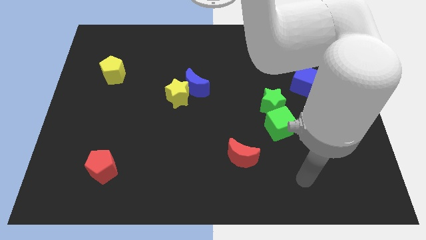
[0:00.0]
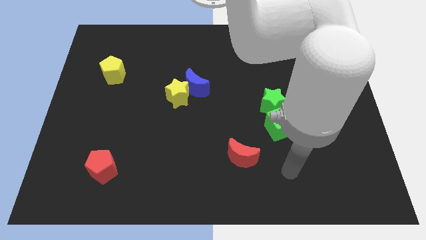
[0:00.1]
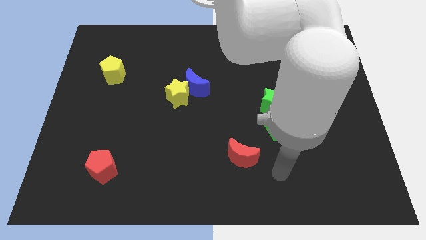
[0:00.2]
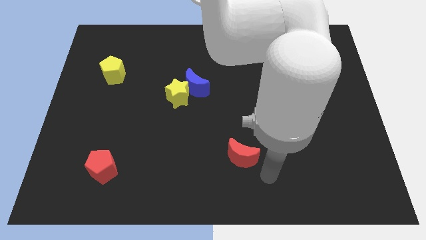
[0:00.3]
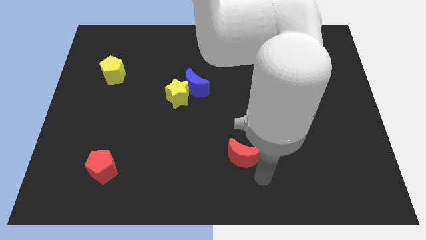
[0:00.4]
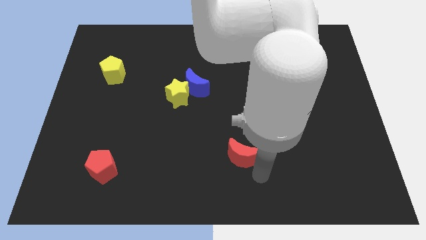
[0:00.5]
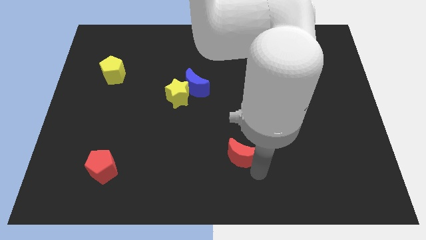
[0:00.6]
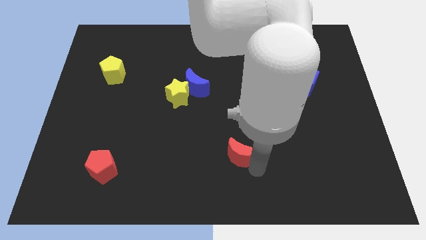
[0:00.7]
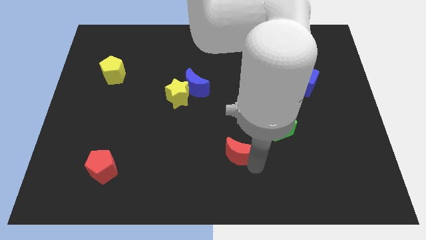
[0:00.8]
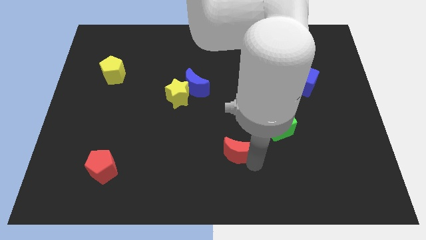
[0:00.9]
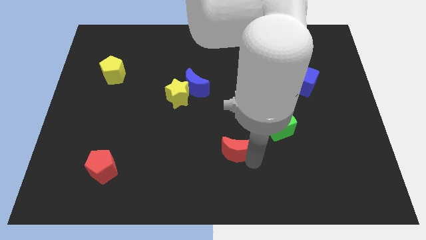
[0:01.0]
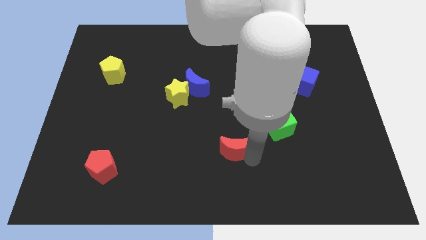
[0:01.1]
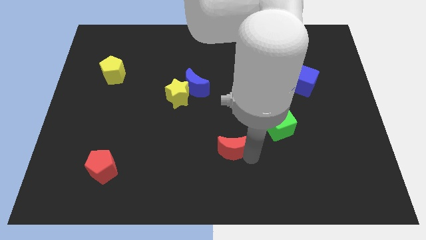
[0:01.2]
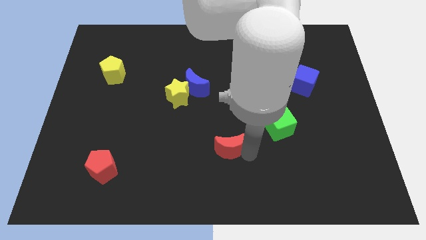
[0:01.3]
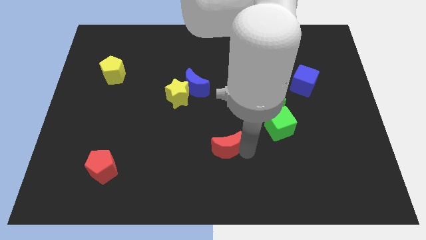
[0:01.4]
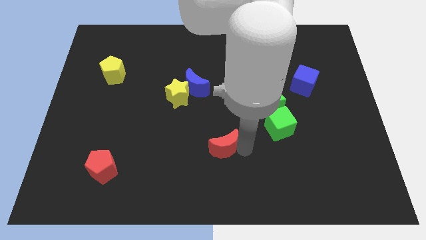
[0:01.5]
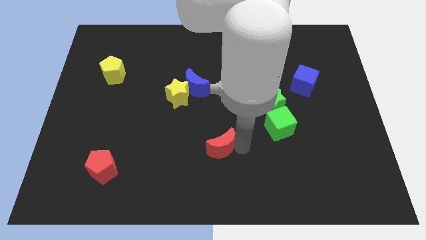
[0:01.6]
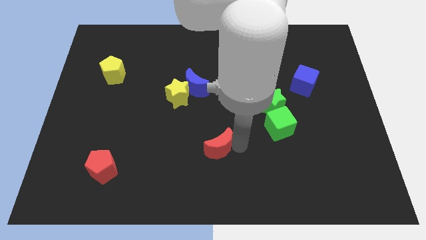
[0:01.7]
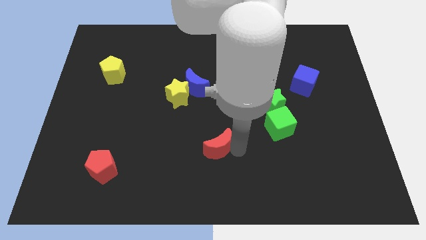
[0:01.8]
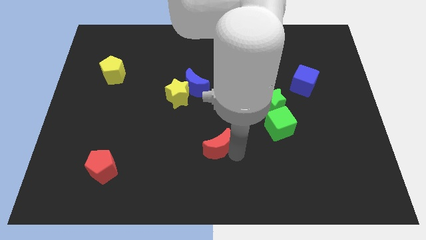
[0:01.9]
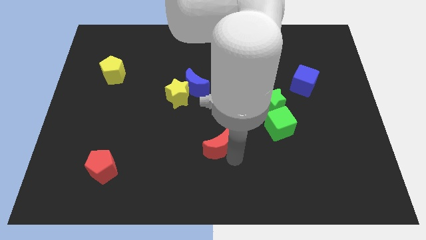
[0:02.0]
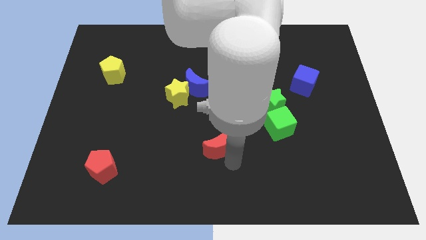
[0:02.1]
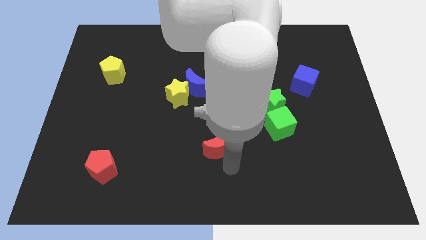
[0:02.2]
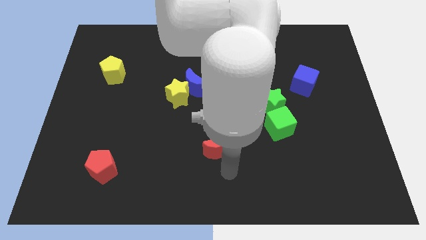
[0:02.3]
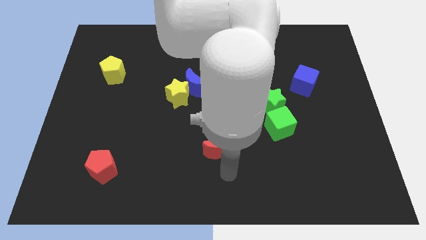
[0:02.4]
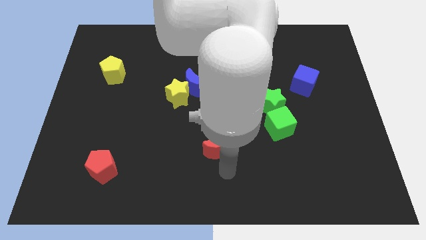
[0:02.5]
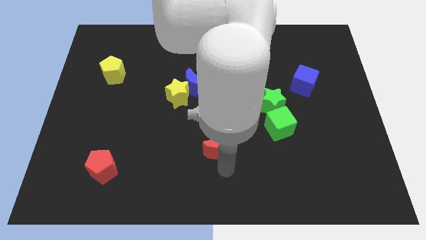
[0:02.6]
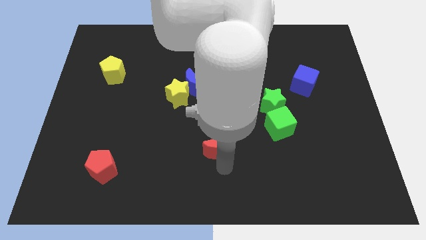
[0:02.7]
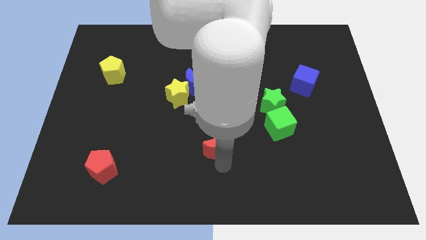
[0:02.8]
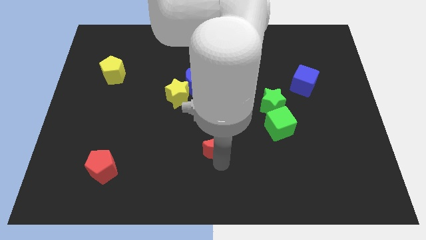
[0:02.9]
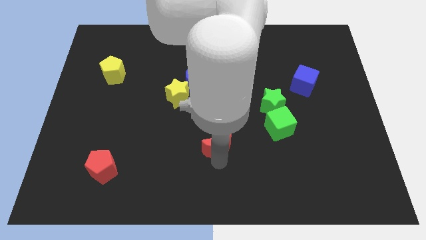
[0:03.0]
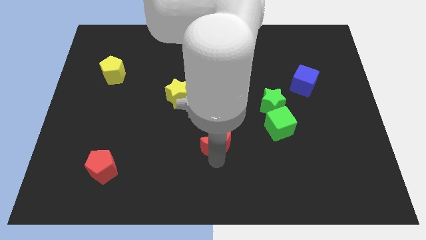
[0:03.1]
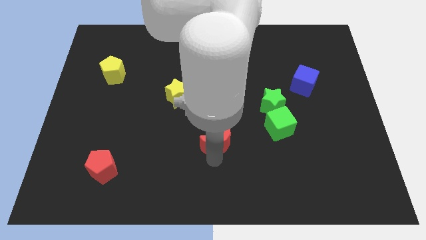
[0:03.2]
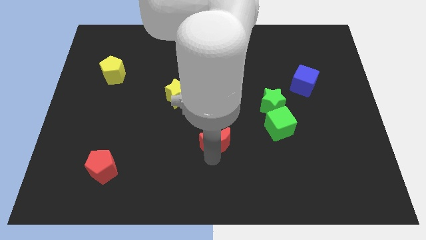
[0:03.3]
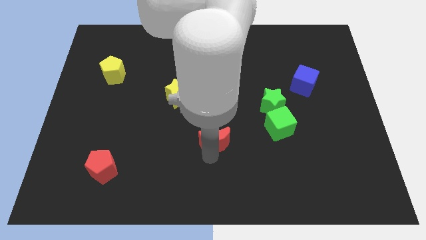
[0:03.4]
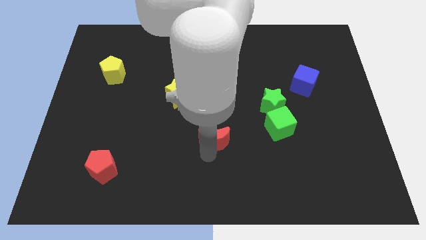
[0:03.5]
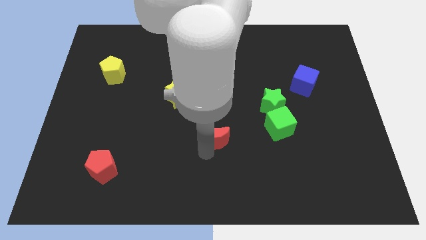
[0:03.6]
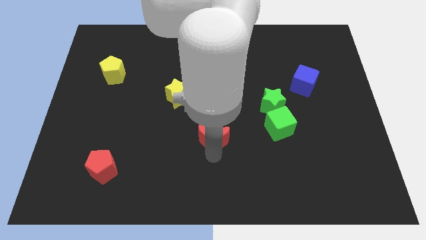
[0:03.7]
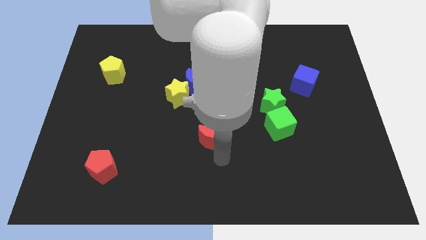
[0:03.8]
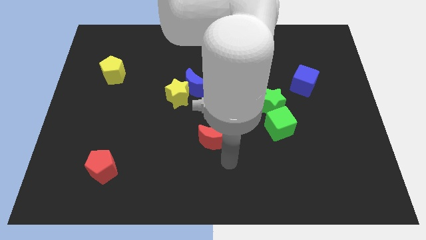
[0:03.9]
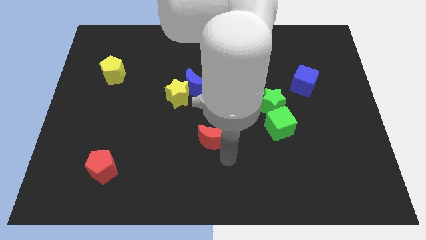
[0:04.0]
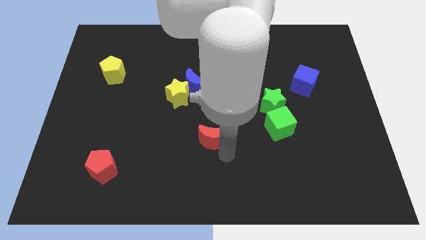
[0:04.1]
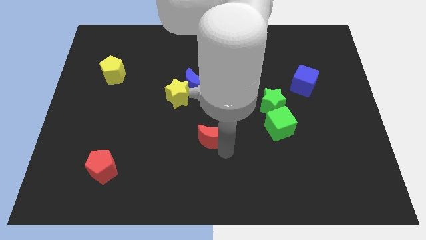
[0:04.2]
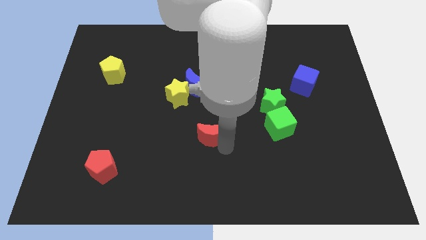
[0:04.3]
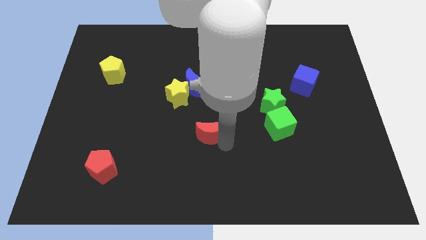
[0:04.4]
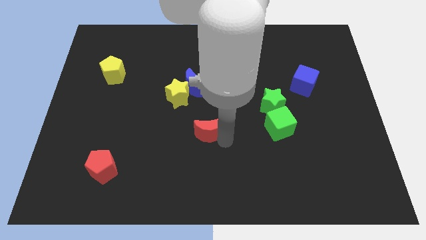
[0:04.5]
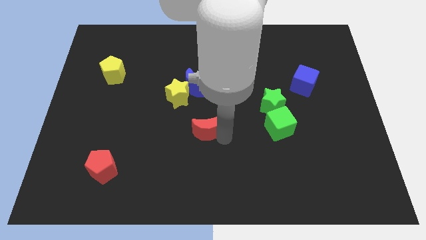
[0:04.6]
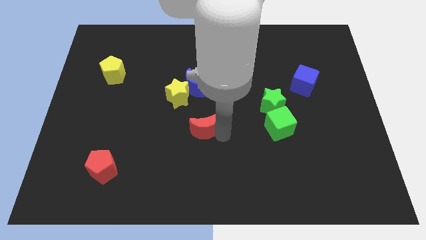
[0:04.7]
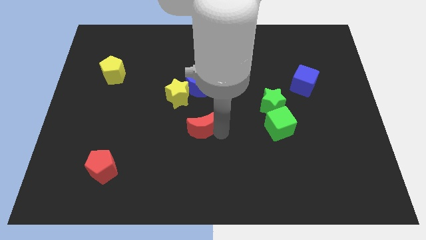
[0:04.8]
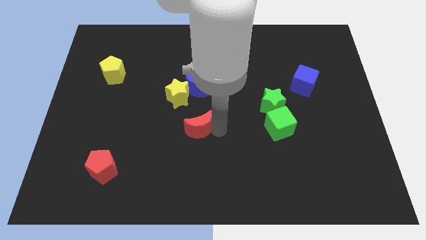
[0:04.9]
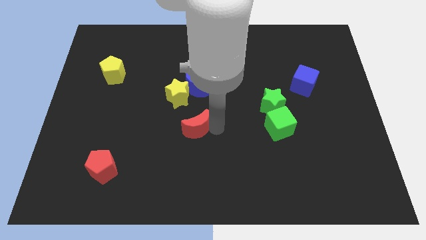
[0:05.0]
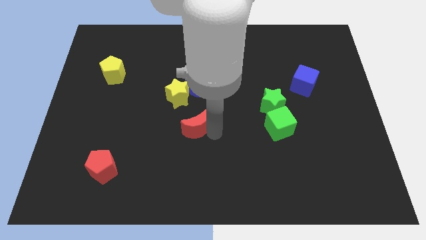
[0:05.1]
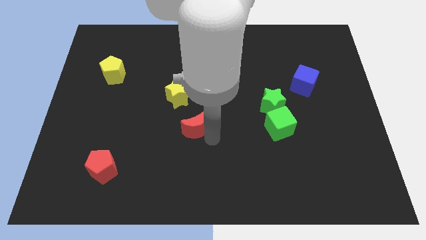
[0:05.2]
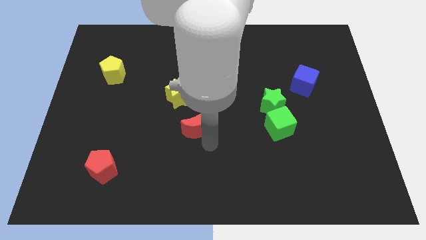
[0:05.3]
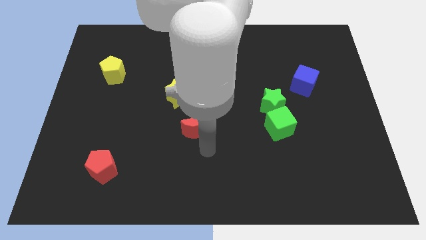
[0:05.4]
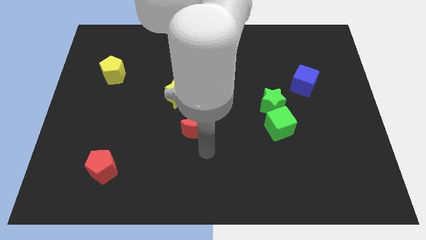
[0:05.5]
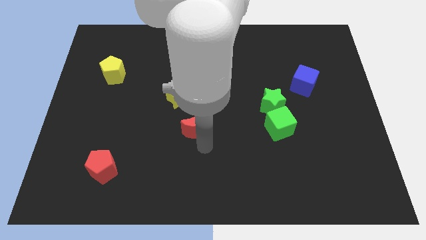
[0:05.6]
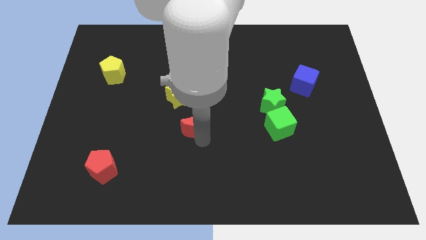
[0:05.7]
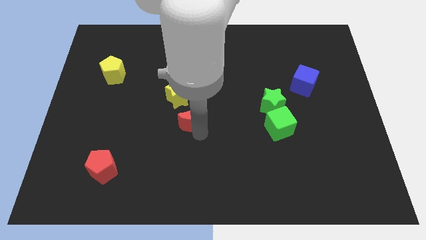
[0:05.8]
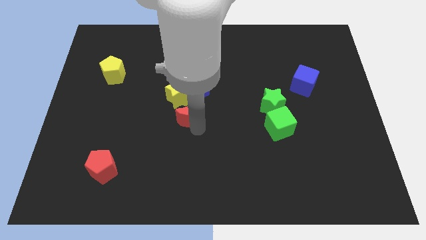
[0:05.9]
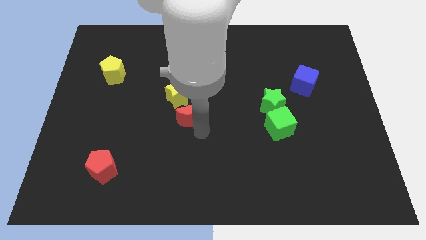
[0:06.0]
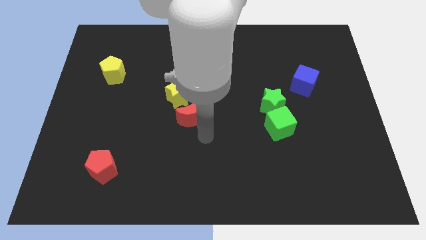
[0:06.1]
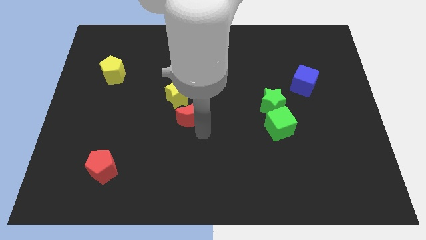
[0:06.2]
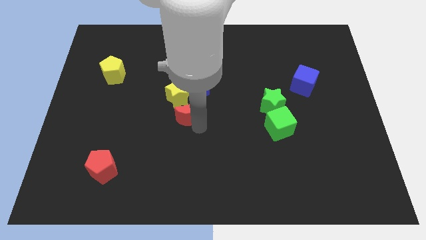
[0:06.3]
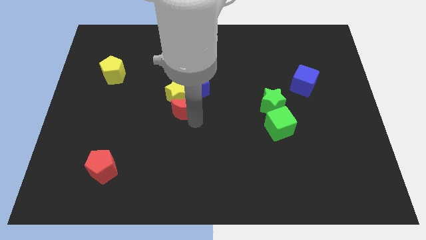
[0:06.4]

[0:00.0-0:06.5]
slide the red moon next to the yellow star
